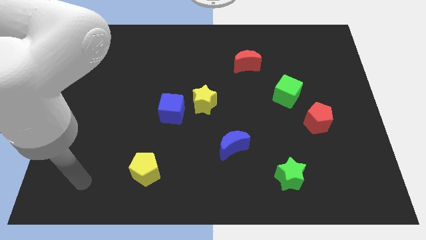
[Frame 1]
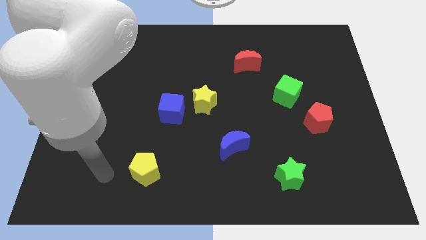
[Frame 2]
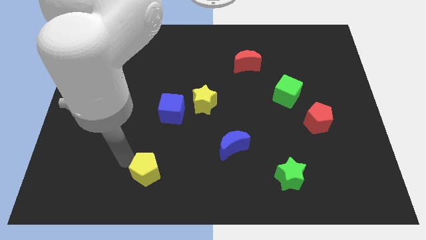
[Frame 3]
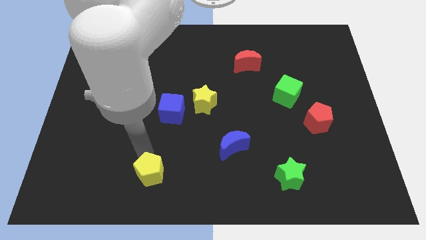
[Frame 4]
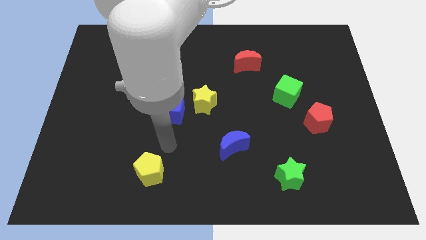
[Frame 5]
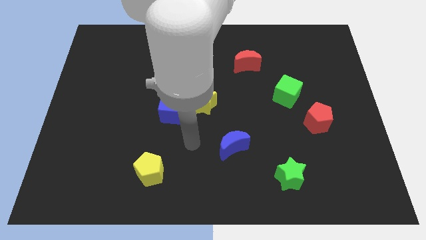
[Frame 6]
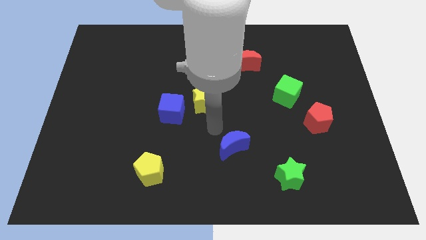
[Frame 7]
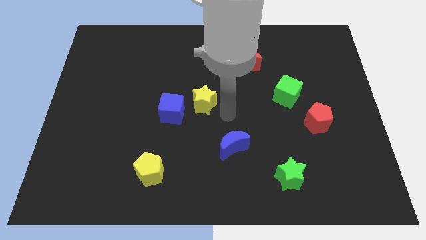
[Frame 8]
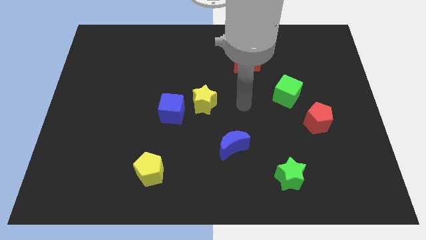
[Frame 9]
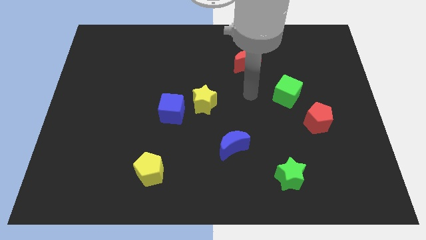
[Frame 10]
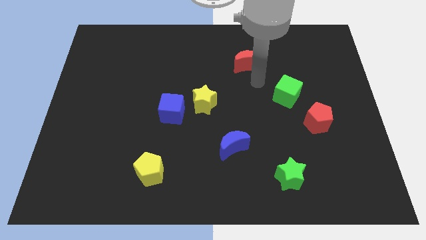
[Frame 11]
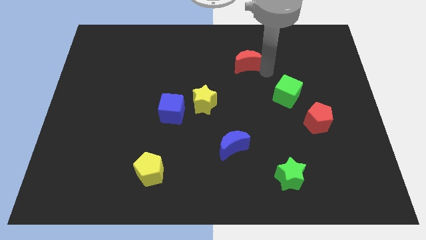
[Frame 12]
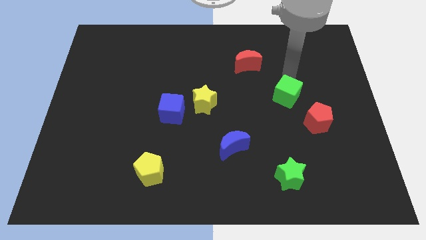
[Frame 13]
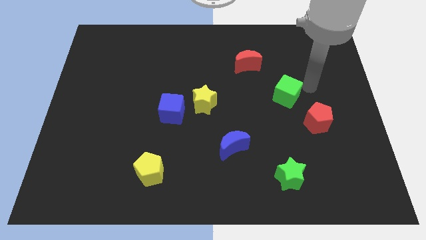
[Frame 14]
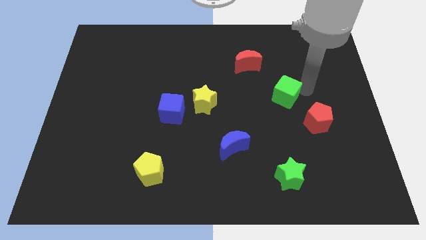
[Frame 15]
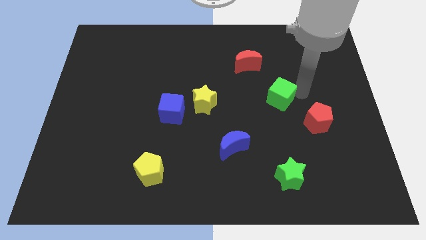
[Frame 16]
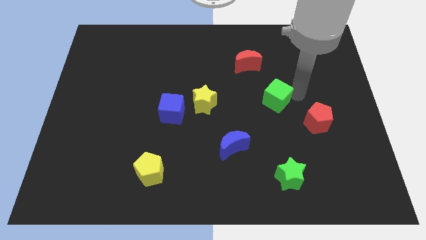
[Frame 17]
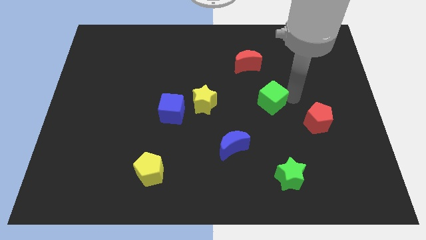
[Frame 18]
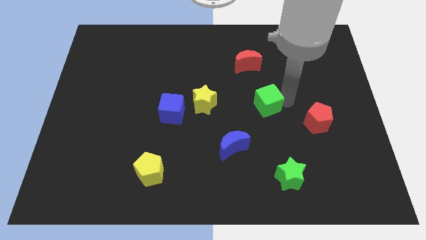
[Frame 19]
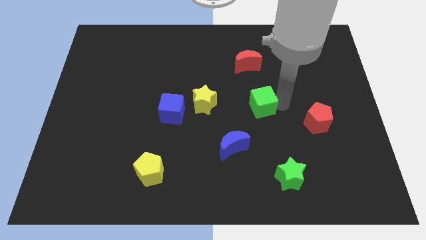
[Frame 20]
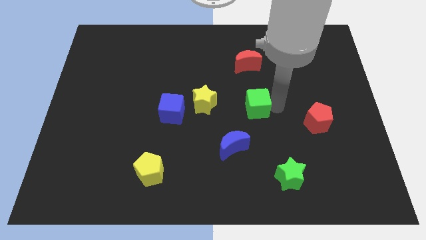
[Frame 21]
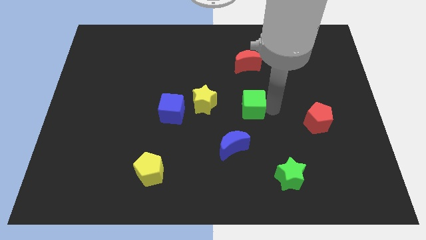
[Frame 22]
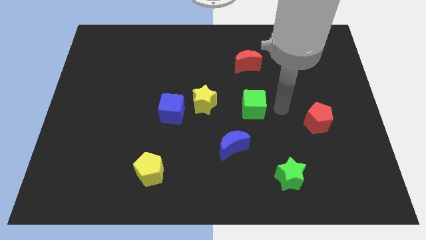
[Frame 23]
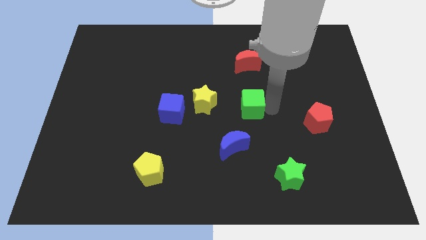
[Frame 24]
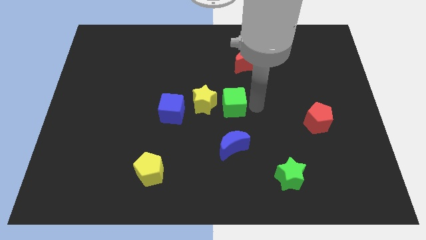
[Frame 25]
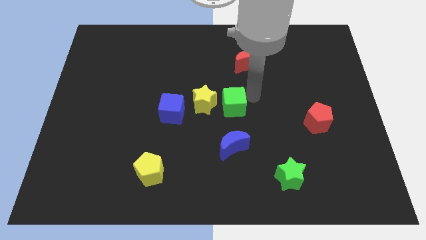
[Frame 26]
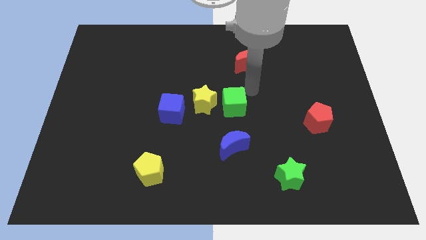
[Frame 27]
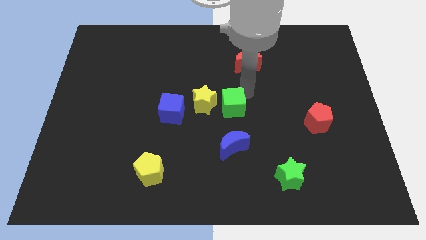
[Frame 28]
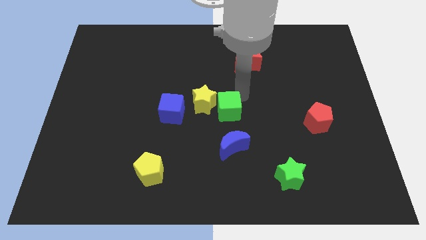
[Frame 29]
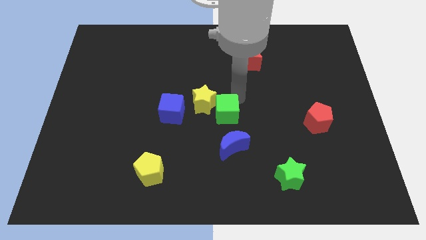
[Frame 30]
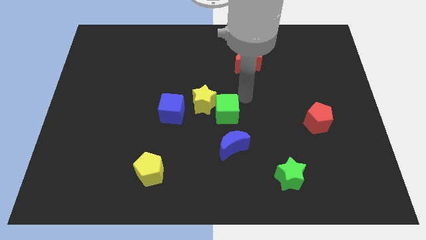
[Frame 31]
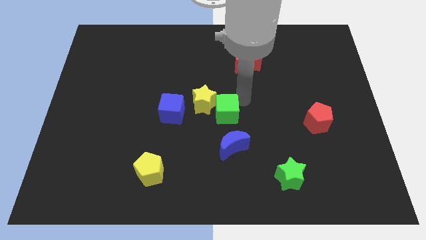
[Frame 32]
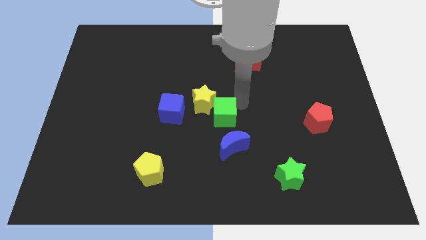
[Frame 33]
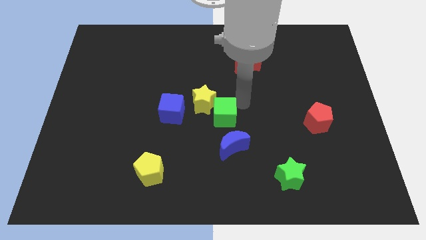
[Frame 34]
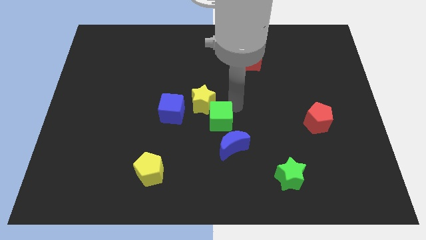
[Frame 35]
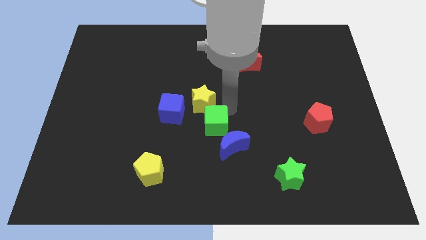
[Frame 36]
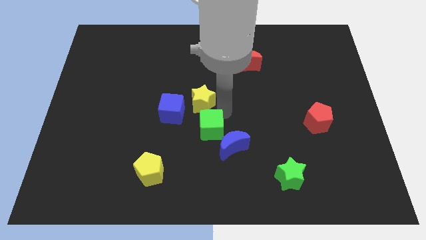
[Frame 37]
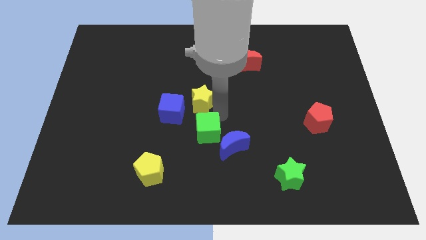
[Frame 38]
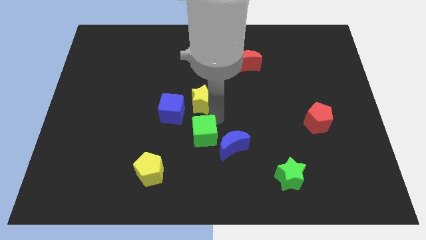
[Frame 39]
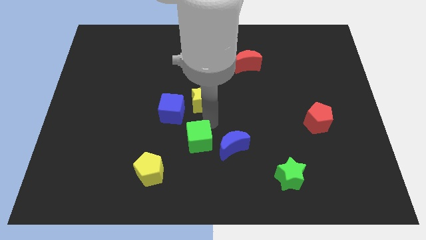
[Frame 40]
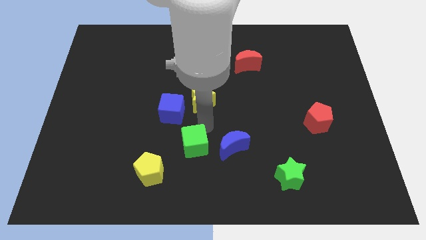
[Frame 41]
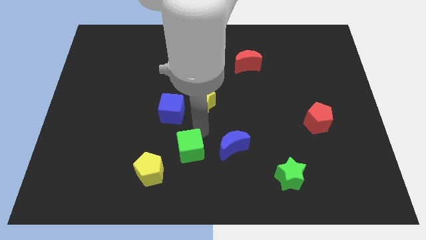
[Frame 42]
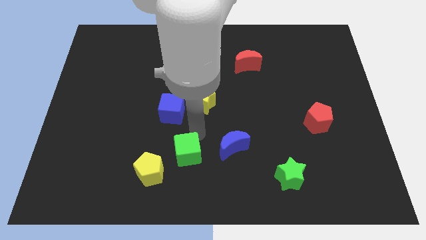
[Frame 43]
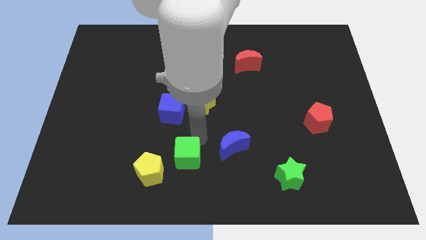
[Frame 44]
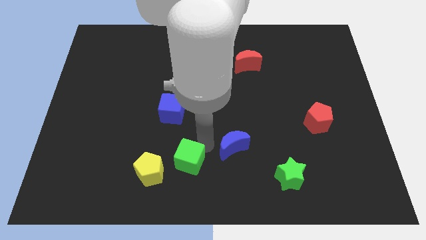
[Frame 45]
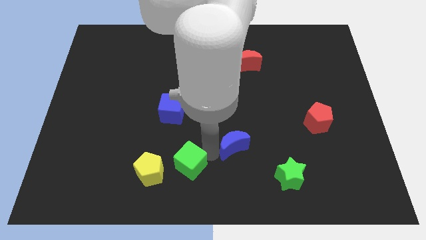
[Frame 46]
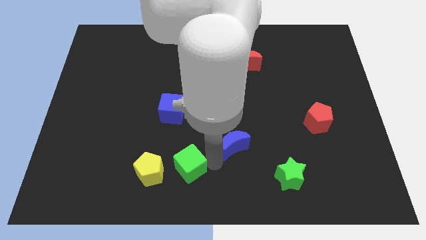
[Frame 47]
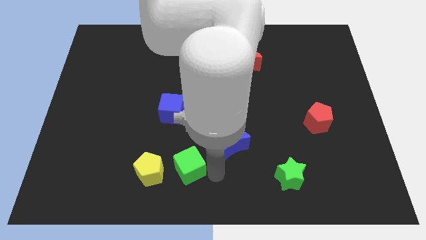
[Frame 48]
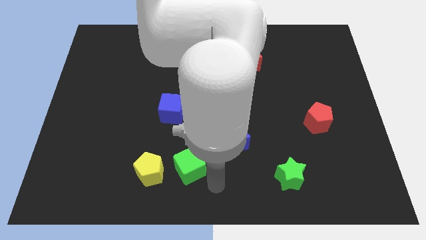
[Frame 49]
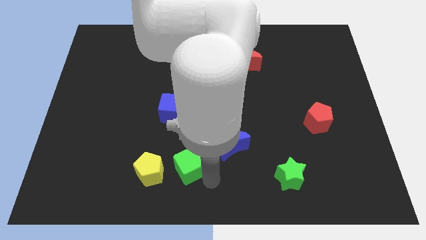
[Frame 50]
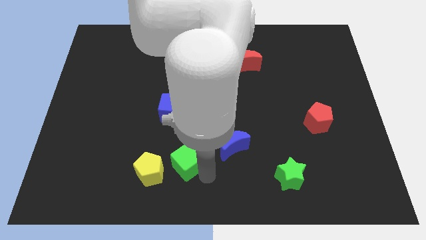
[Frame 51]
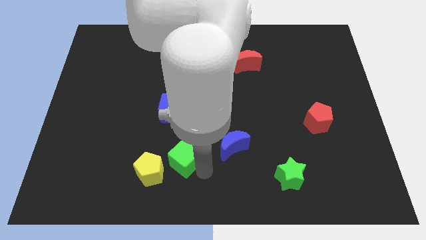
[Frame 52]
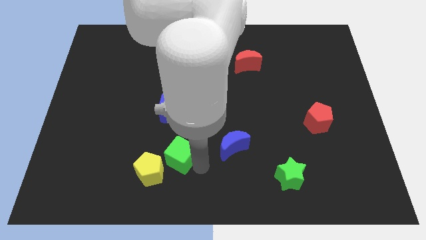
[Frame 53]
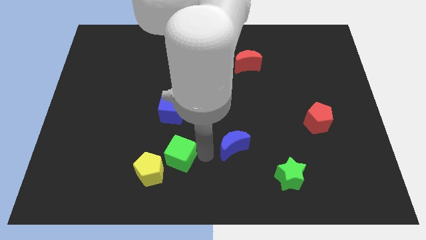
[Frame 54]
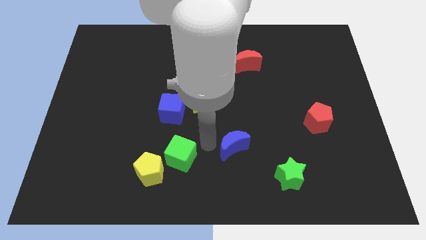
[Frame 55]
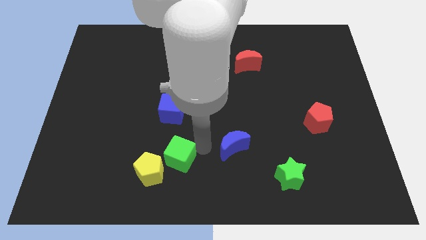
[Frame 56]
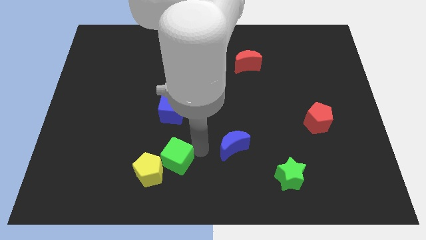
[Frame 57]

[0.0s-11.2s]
put the green cube next to the yellow pentagon

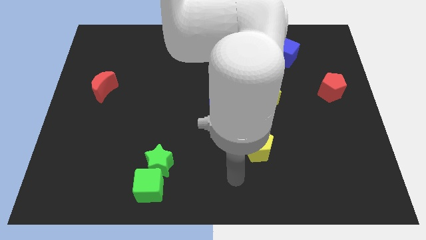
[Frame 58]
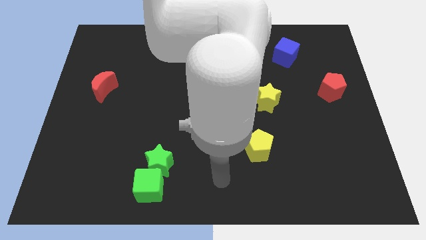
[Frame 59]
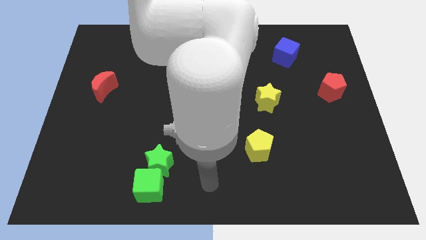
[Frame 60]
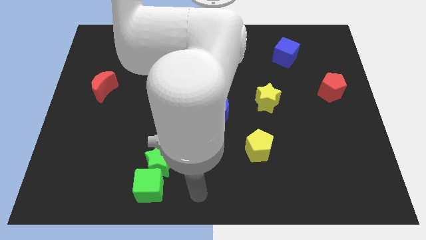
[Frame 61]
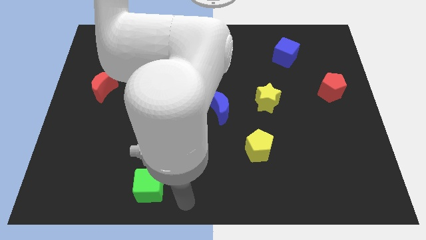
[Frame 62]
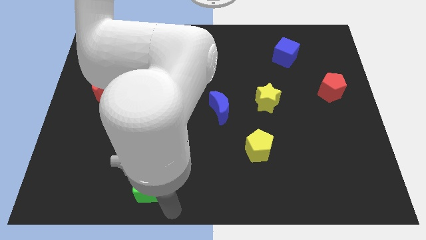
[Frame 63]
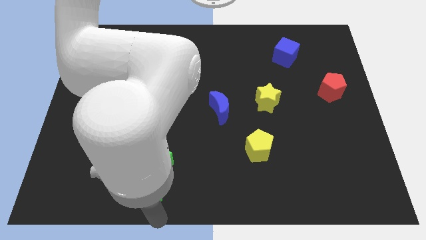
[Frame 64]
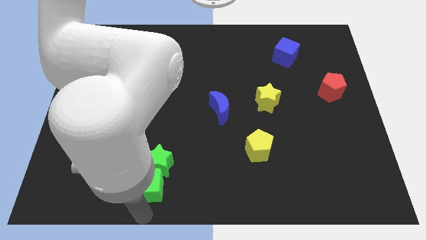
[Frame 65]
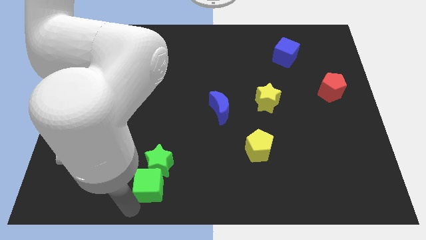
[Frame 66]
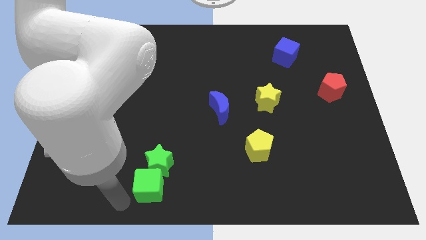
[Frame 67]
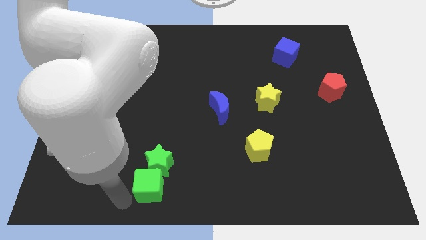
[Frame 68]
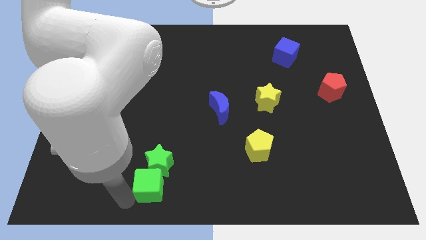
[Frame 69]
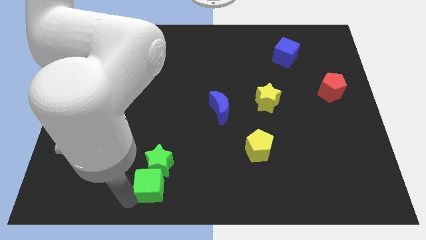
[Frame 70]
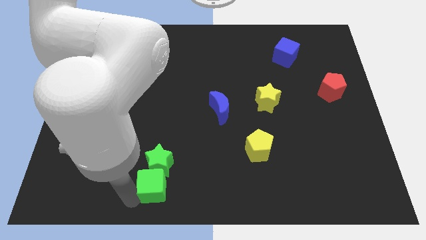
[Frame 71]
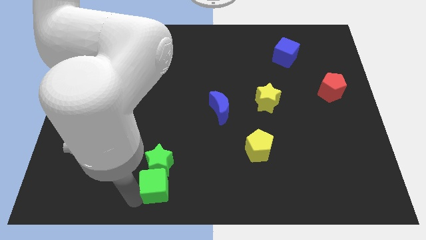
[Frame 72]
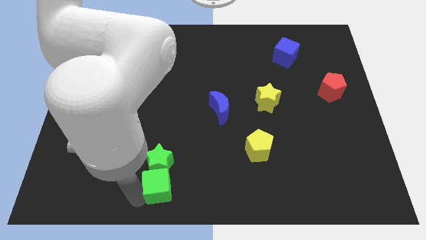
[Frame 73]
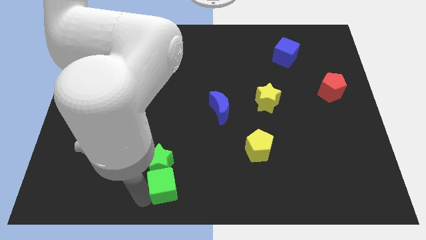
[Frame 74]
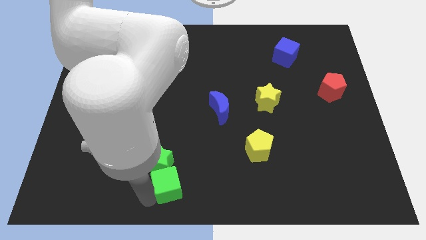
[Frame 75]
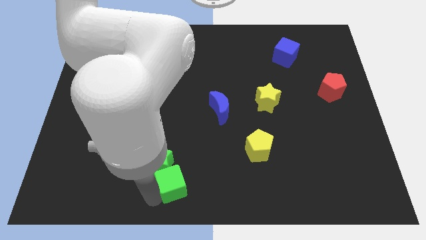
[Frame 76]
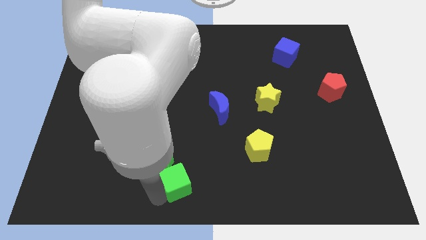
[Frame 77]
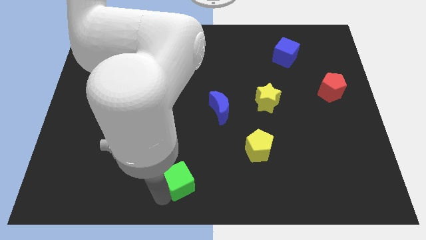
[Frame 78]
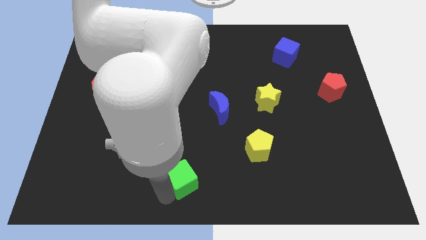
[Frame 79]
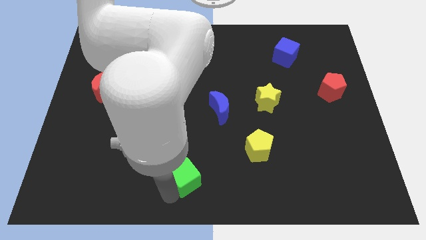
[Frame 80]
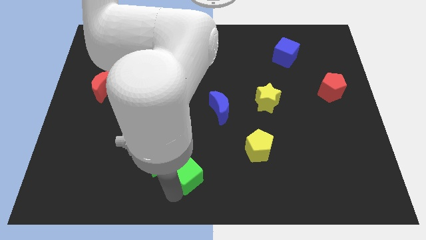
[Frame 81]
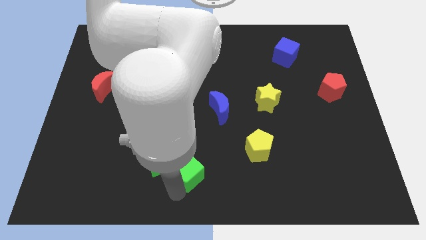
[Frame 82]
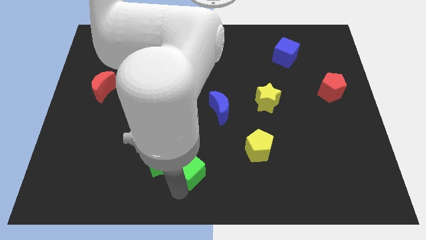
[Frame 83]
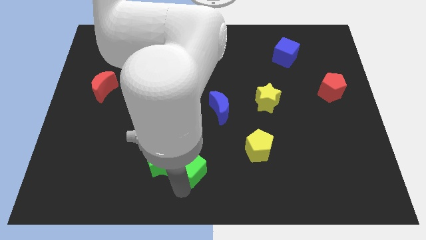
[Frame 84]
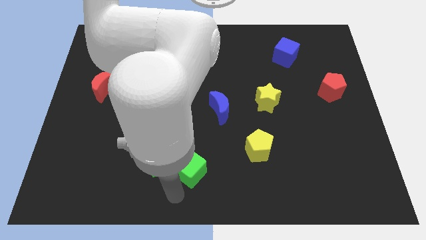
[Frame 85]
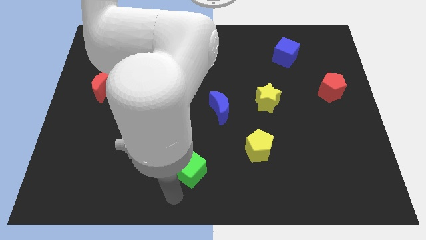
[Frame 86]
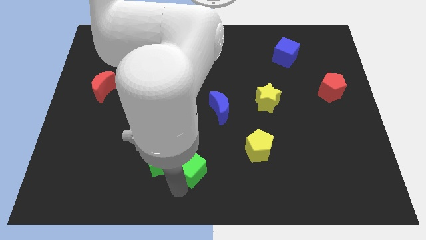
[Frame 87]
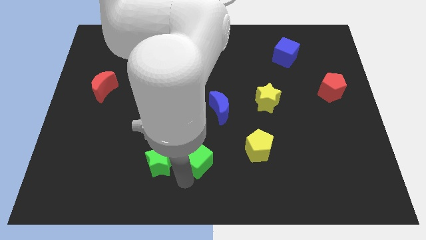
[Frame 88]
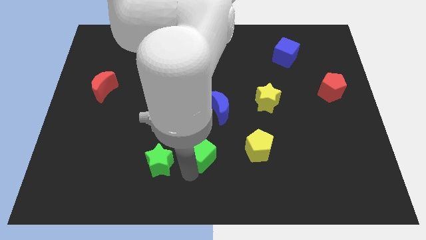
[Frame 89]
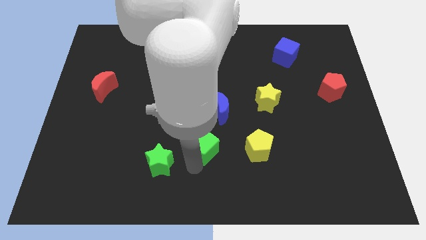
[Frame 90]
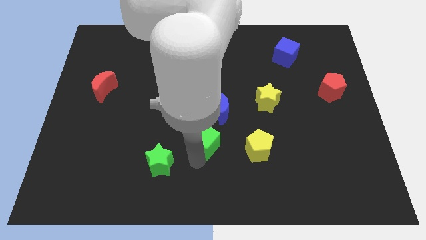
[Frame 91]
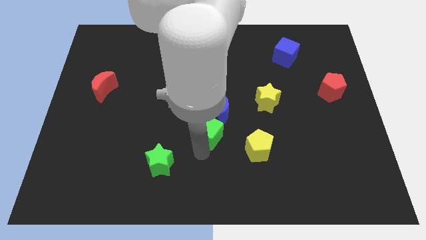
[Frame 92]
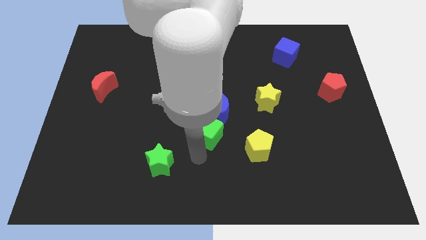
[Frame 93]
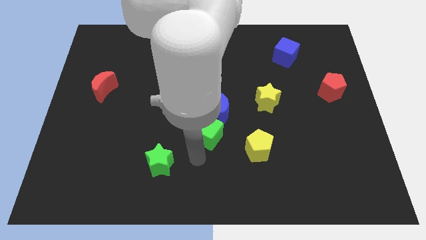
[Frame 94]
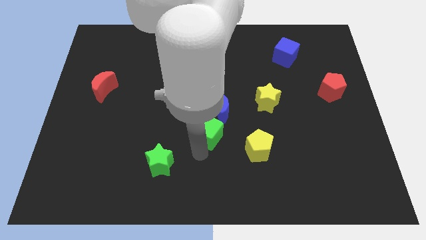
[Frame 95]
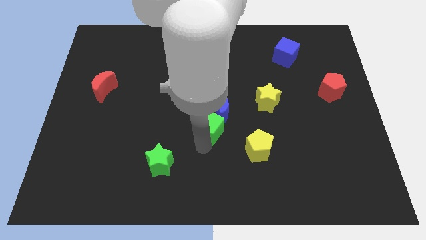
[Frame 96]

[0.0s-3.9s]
put the green cube towards the blue moon
